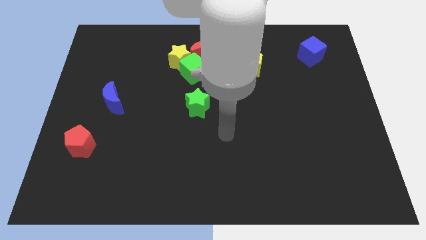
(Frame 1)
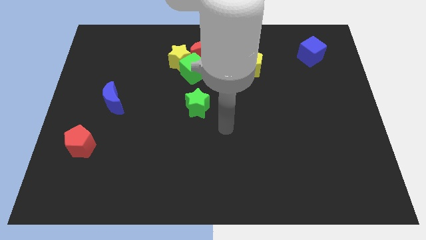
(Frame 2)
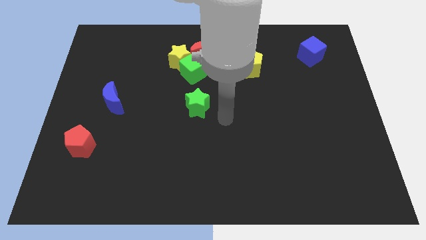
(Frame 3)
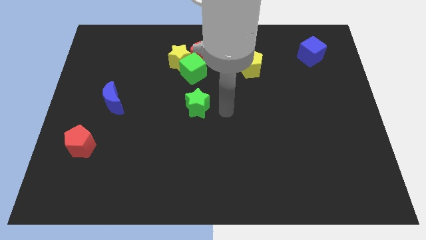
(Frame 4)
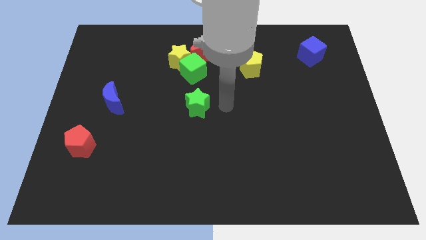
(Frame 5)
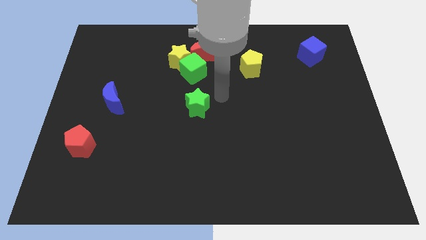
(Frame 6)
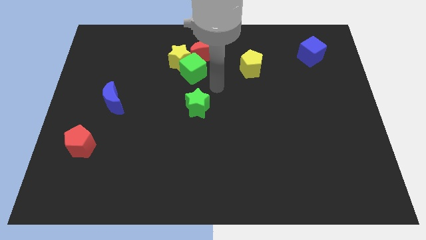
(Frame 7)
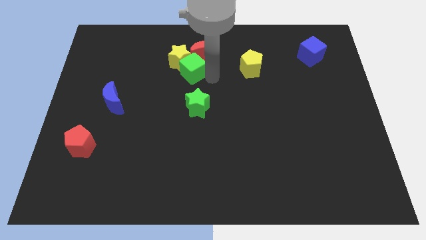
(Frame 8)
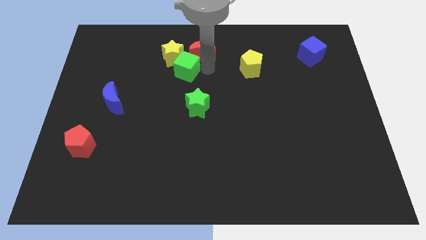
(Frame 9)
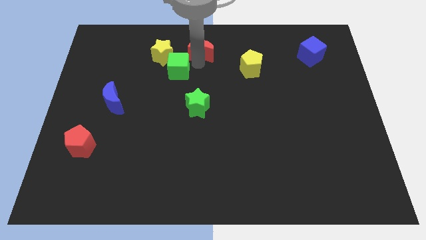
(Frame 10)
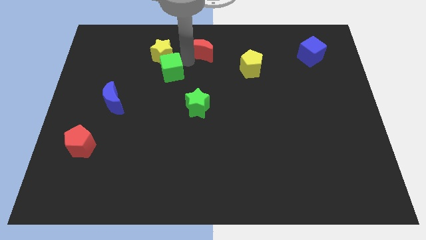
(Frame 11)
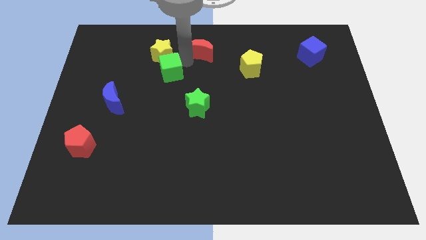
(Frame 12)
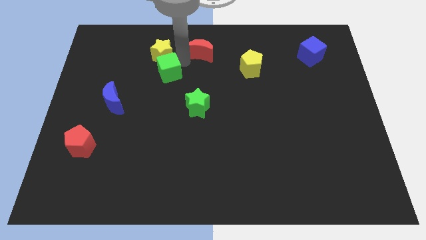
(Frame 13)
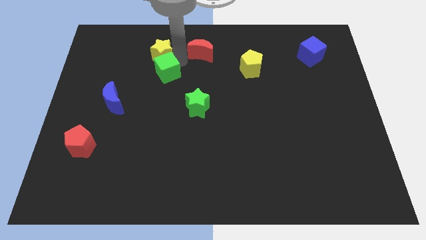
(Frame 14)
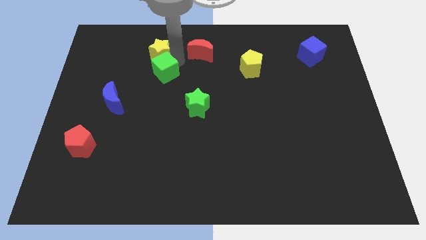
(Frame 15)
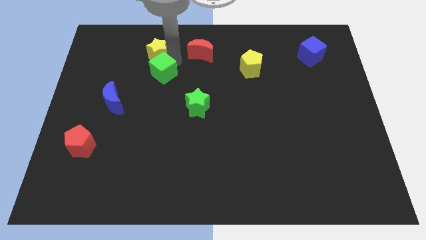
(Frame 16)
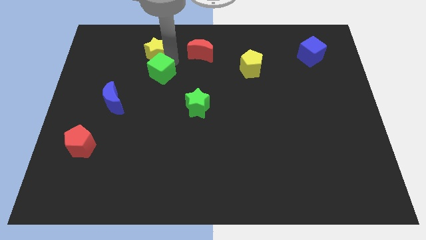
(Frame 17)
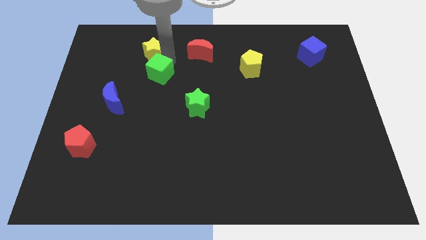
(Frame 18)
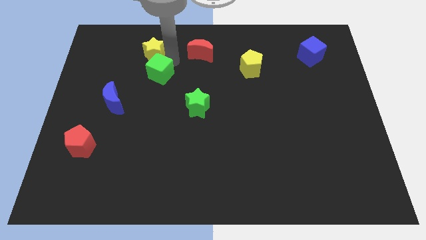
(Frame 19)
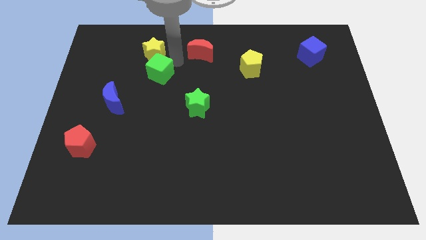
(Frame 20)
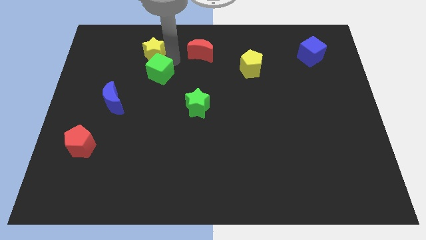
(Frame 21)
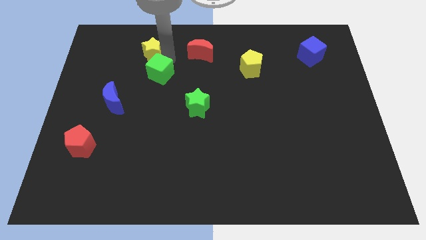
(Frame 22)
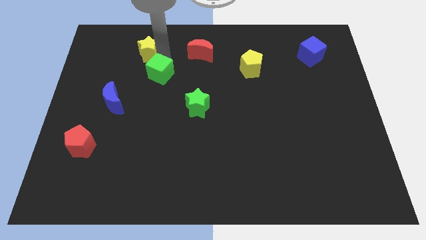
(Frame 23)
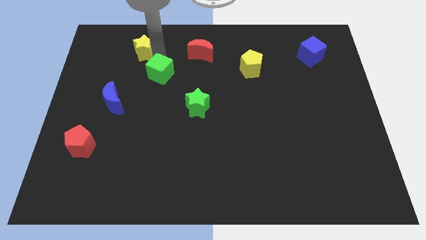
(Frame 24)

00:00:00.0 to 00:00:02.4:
move the yellow star away from the green cube and red moon

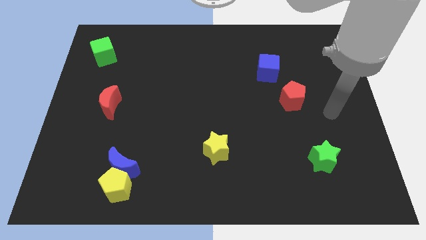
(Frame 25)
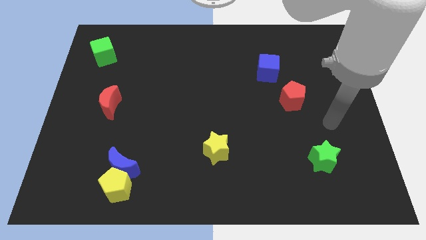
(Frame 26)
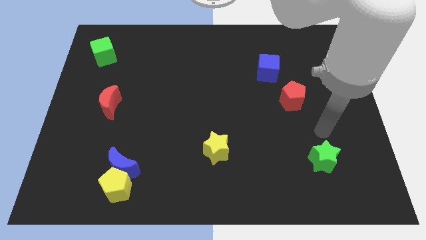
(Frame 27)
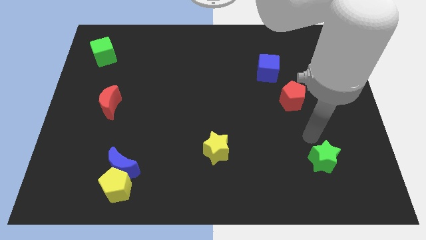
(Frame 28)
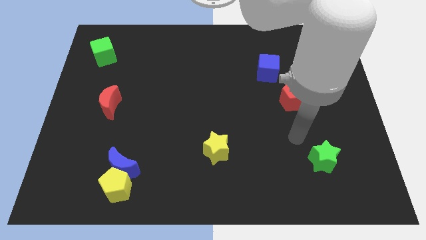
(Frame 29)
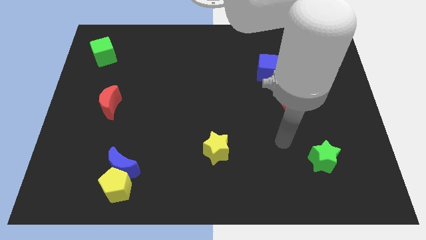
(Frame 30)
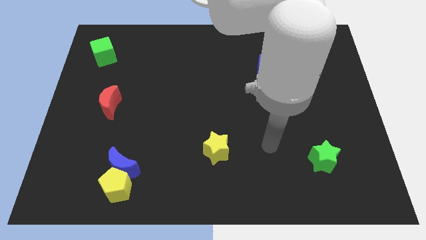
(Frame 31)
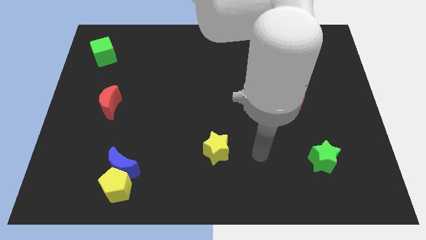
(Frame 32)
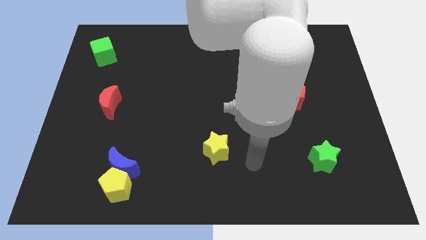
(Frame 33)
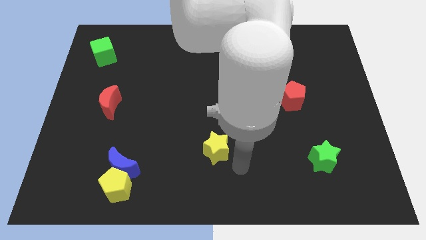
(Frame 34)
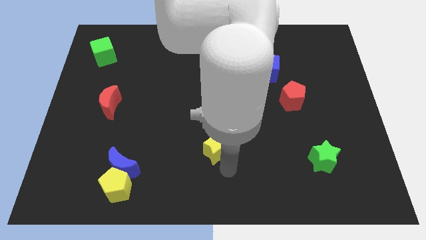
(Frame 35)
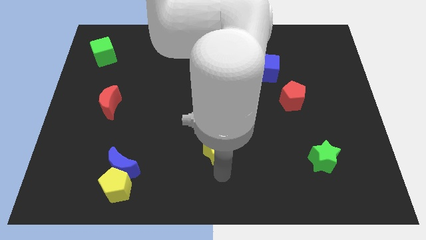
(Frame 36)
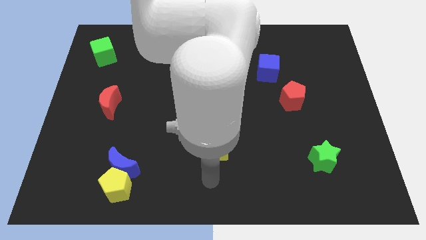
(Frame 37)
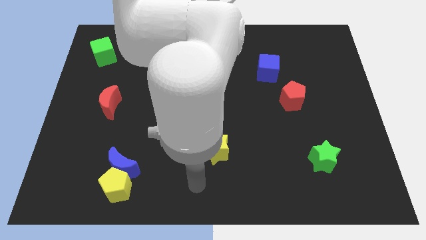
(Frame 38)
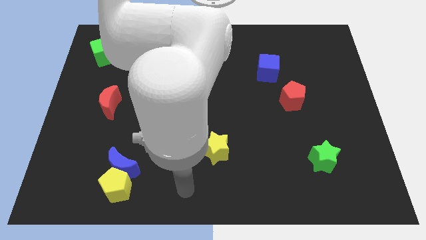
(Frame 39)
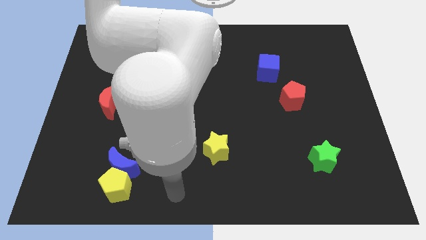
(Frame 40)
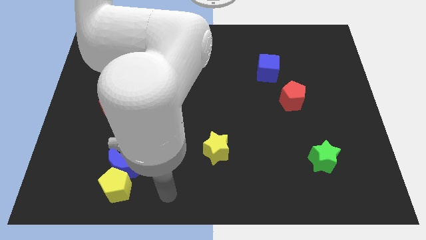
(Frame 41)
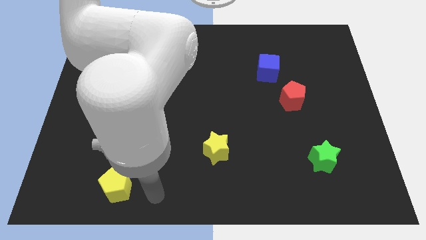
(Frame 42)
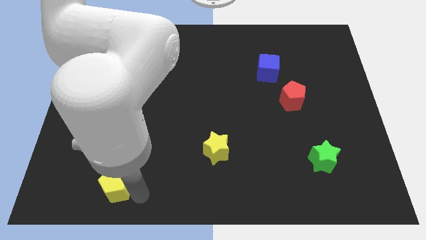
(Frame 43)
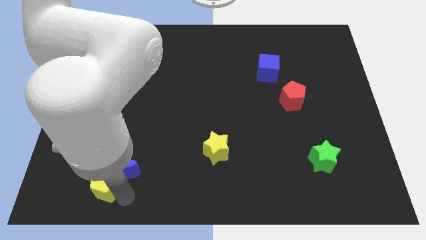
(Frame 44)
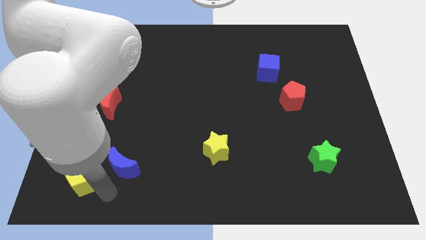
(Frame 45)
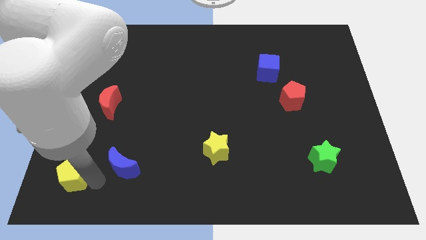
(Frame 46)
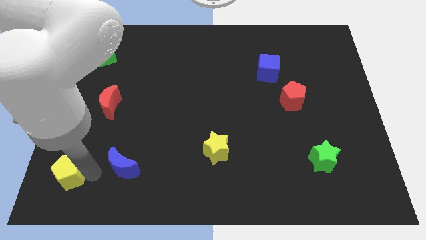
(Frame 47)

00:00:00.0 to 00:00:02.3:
pull the blue moon apart from the yellow pentagon

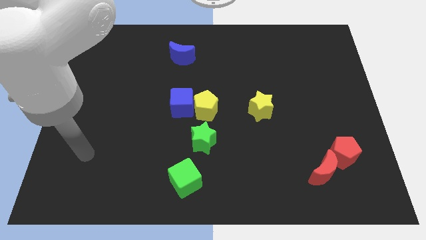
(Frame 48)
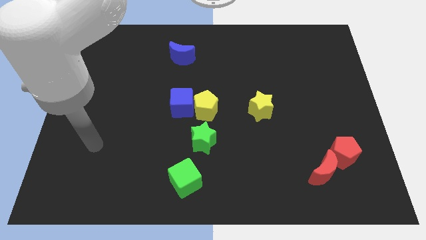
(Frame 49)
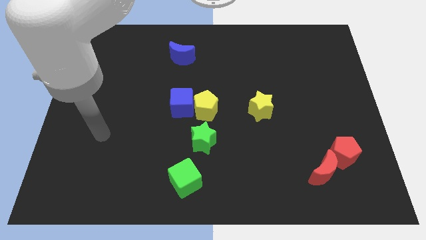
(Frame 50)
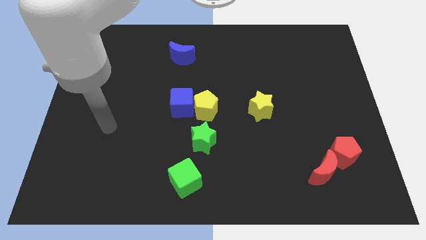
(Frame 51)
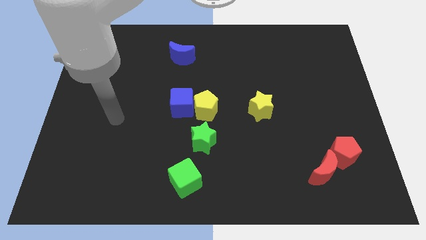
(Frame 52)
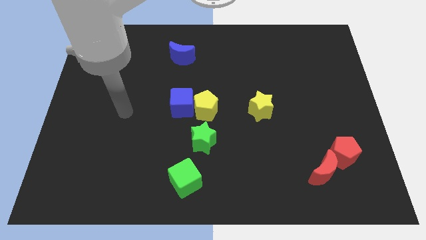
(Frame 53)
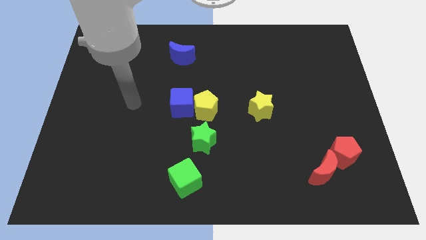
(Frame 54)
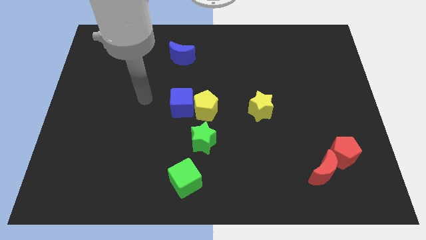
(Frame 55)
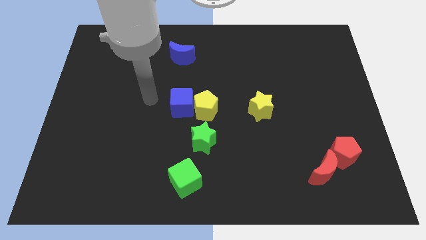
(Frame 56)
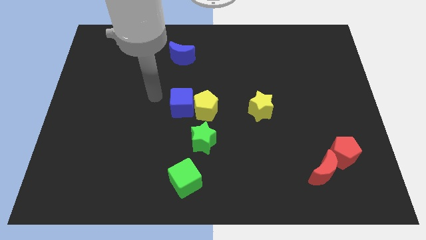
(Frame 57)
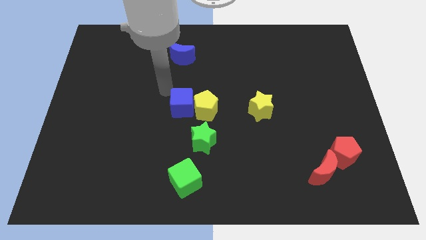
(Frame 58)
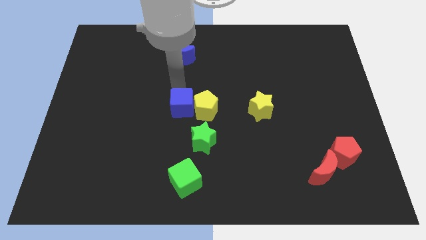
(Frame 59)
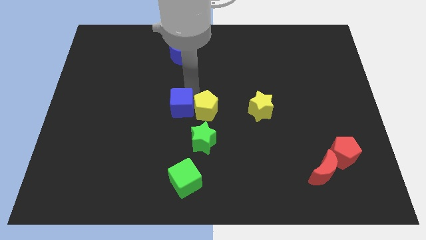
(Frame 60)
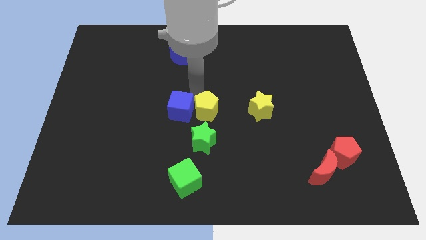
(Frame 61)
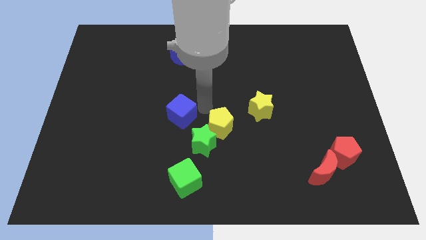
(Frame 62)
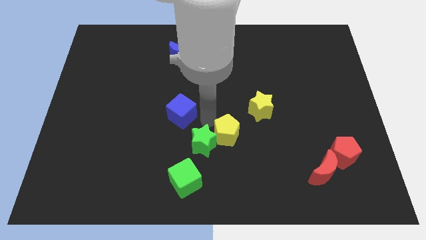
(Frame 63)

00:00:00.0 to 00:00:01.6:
move the blue cube away from the yellow pentagon

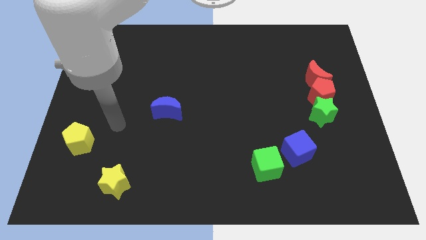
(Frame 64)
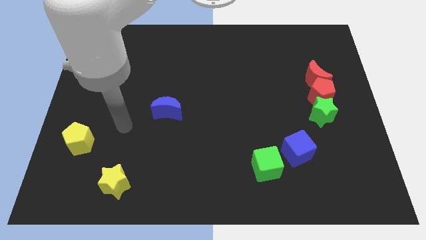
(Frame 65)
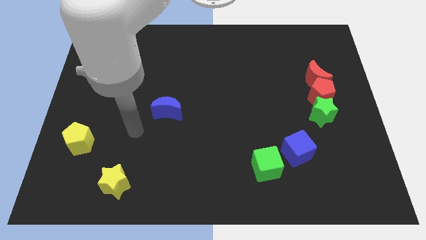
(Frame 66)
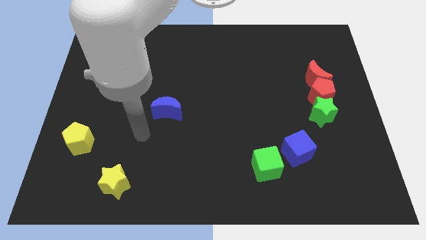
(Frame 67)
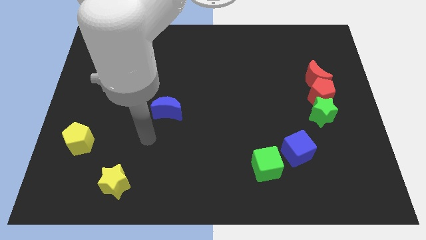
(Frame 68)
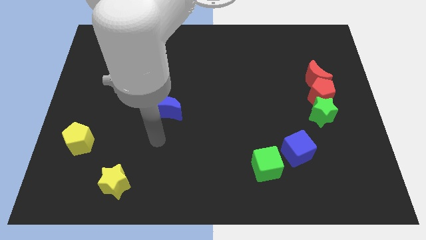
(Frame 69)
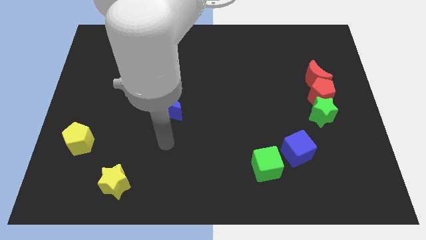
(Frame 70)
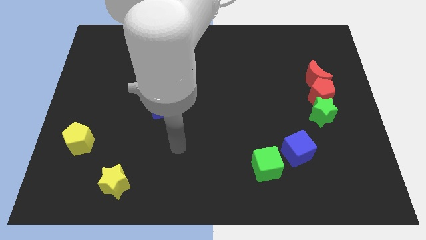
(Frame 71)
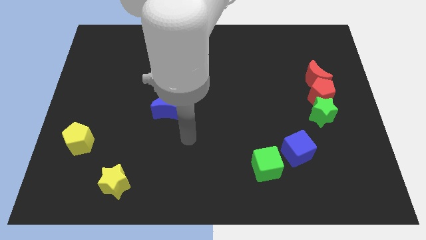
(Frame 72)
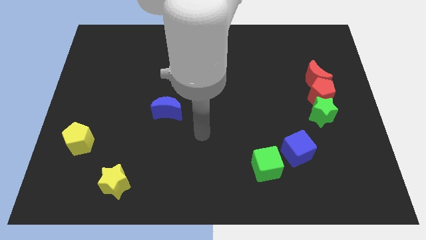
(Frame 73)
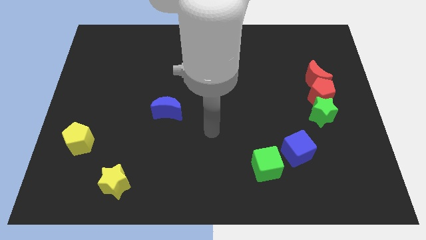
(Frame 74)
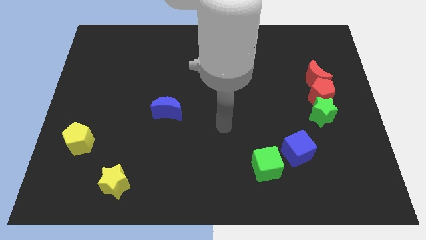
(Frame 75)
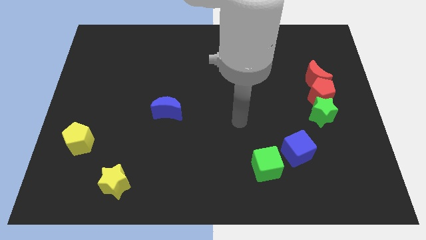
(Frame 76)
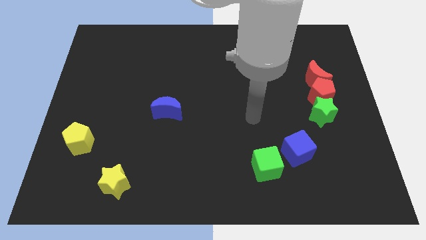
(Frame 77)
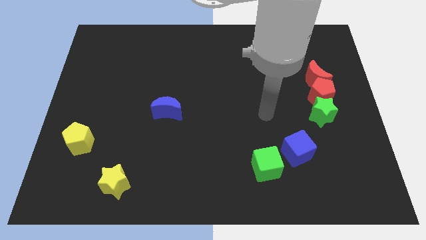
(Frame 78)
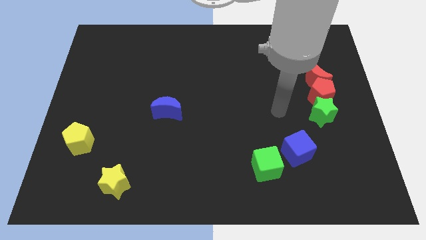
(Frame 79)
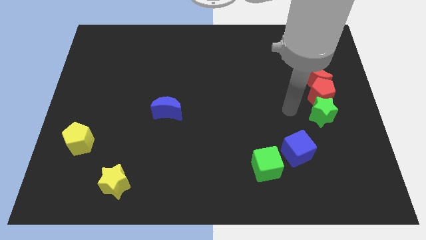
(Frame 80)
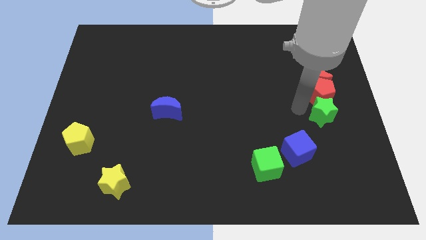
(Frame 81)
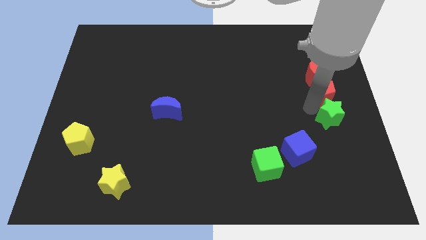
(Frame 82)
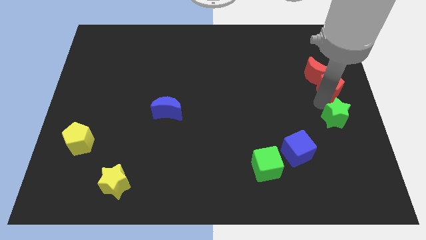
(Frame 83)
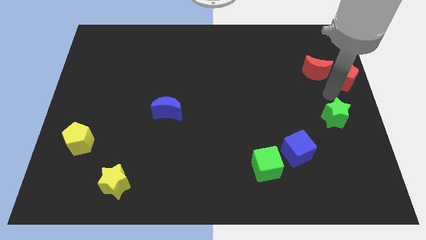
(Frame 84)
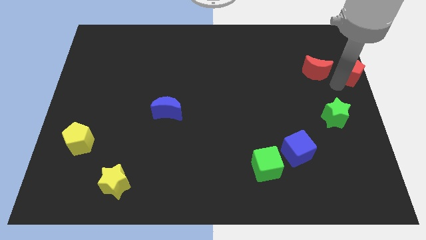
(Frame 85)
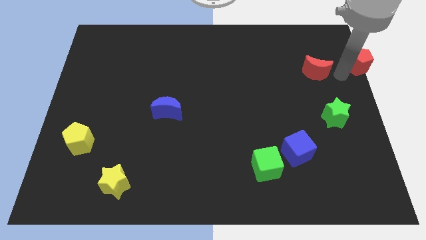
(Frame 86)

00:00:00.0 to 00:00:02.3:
separate the red moon from the red pentagon

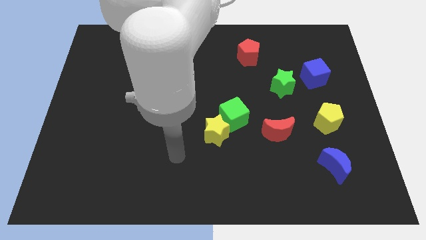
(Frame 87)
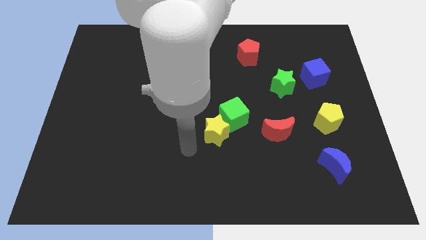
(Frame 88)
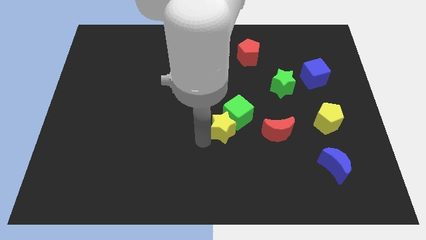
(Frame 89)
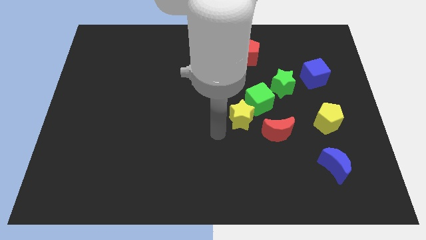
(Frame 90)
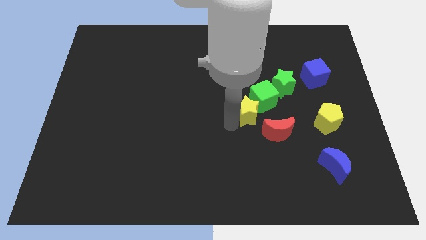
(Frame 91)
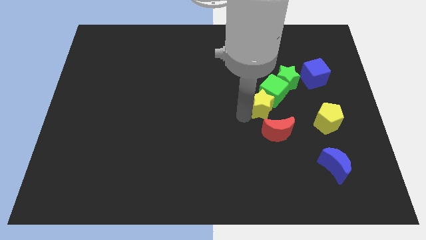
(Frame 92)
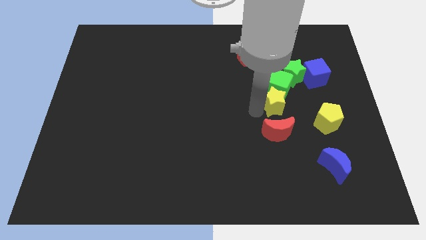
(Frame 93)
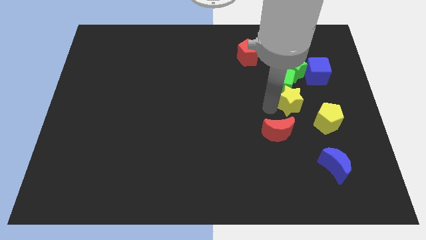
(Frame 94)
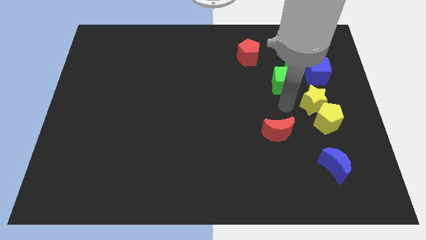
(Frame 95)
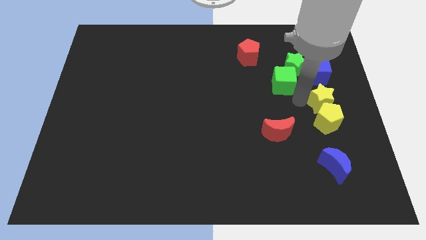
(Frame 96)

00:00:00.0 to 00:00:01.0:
pull the green cube apart from the yellow star
